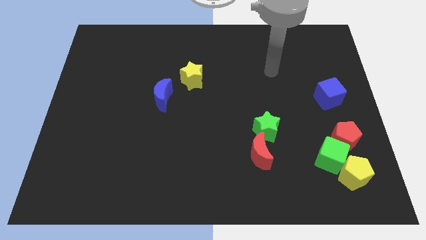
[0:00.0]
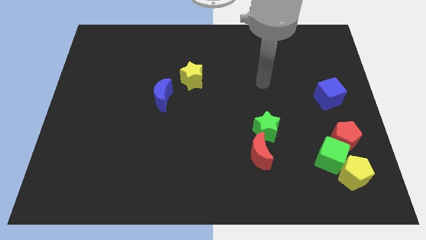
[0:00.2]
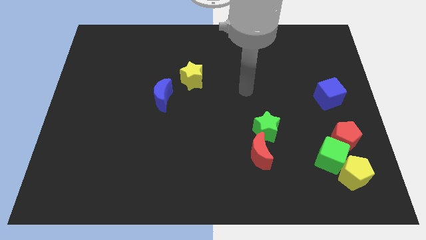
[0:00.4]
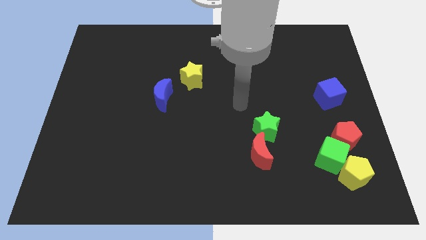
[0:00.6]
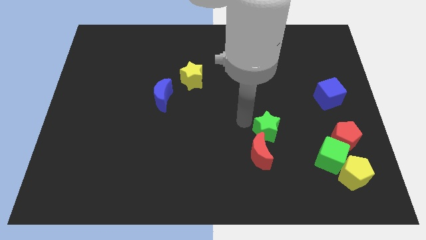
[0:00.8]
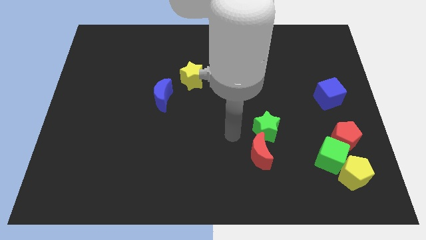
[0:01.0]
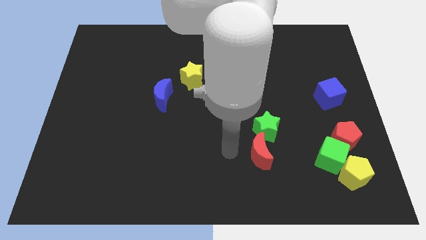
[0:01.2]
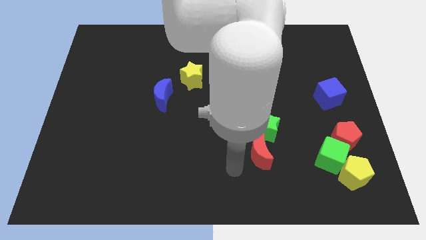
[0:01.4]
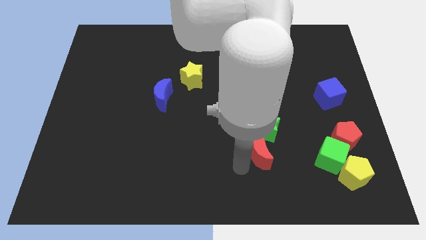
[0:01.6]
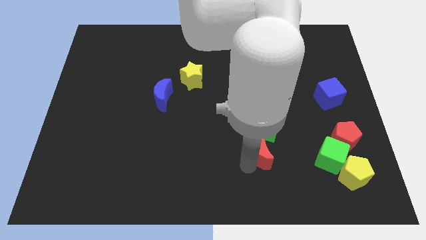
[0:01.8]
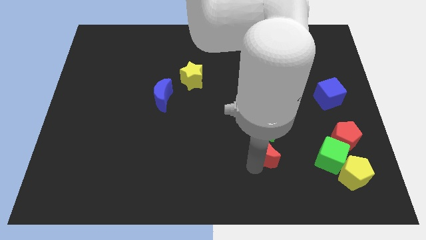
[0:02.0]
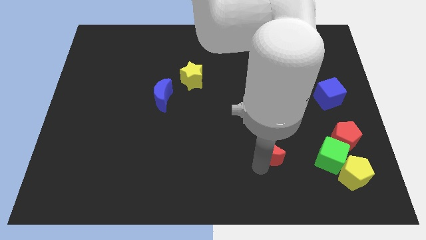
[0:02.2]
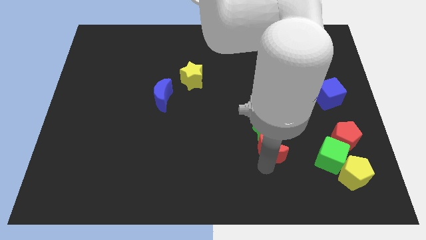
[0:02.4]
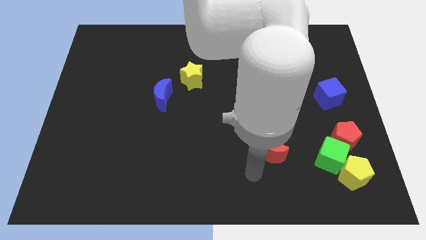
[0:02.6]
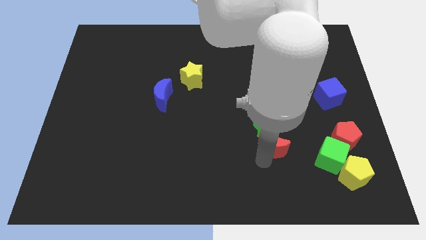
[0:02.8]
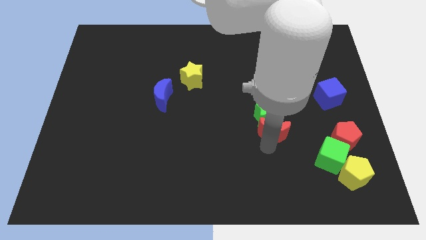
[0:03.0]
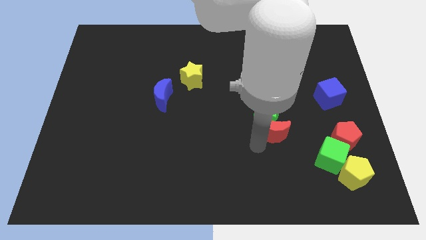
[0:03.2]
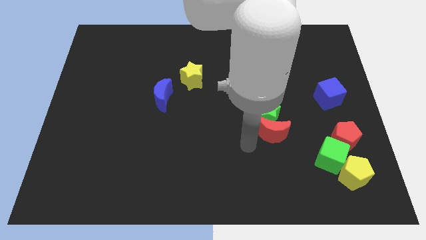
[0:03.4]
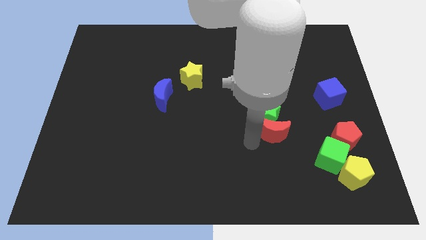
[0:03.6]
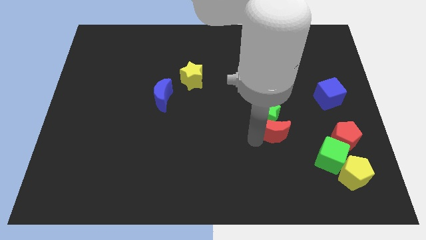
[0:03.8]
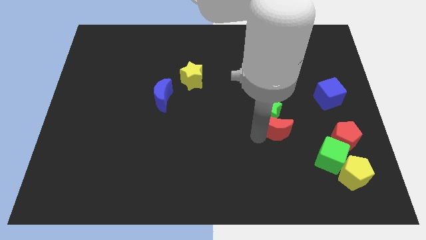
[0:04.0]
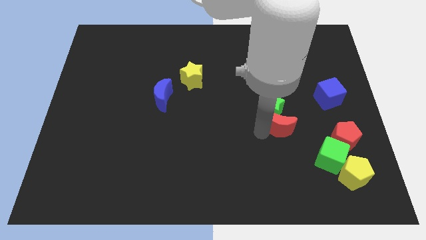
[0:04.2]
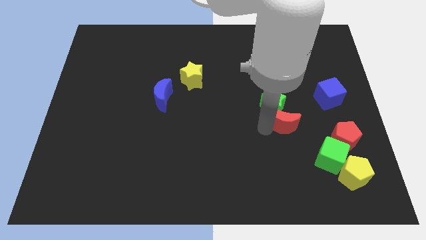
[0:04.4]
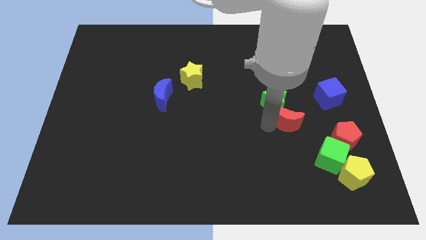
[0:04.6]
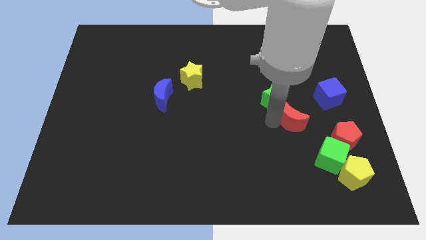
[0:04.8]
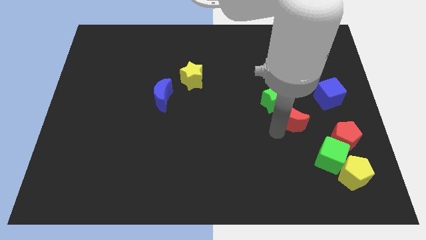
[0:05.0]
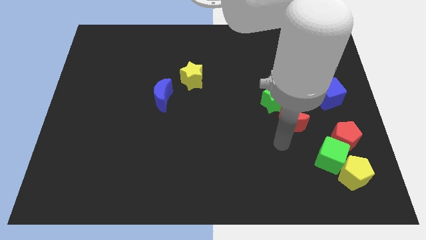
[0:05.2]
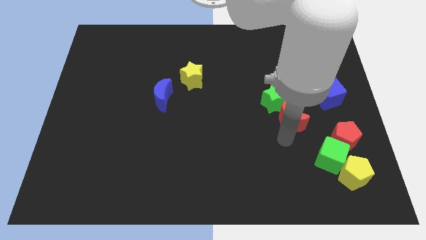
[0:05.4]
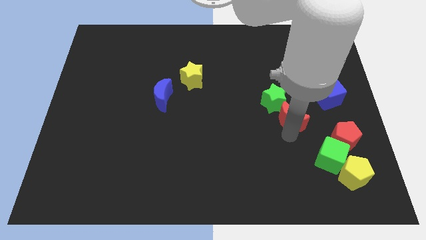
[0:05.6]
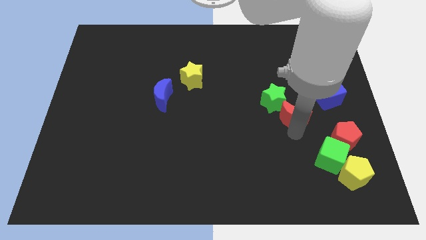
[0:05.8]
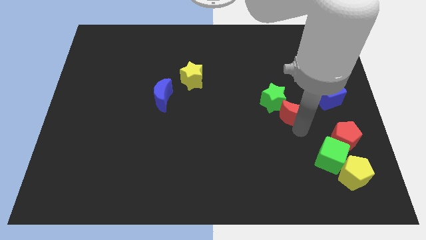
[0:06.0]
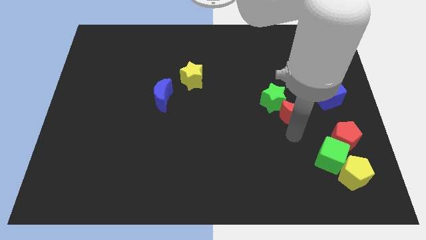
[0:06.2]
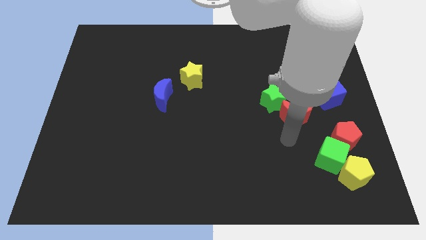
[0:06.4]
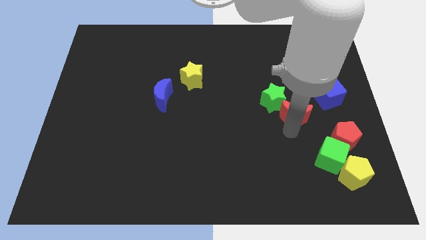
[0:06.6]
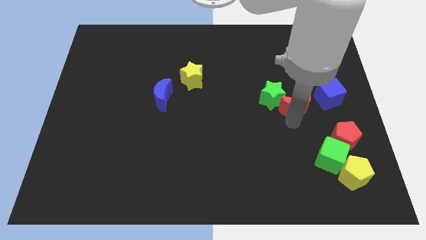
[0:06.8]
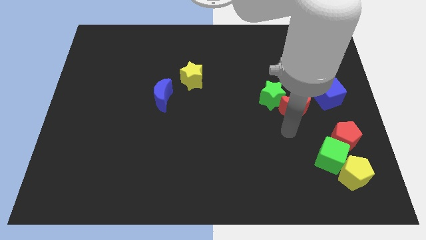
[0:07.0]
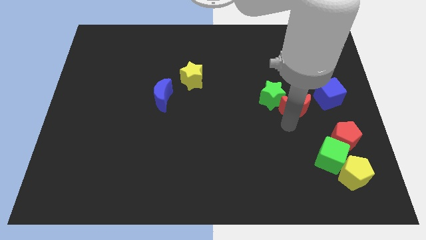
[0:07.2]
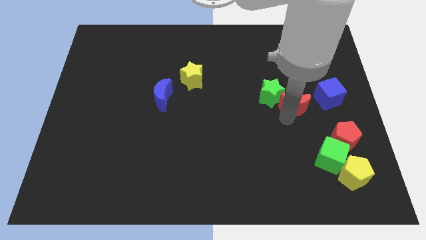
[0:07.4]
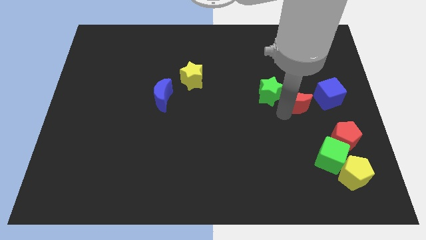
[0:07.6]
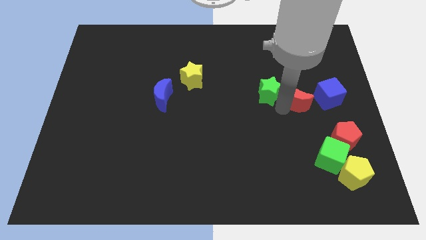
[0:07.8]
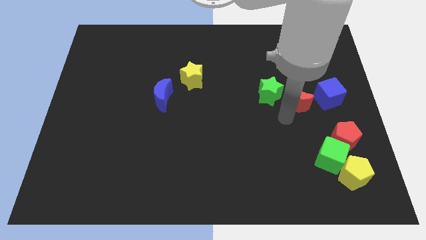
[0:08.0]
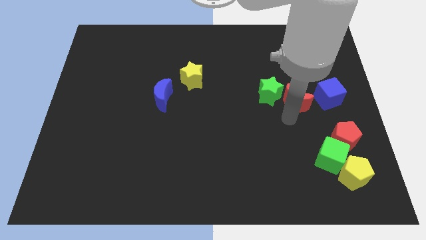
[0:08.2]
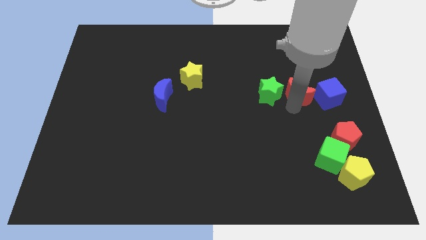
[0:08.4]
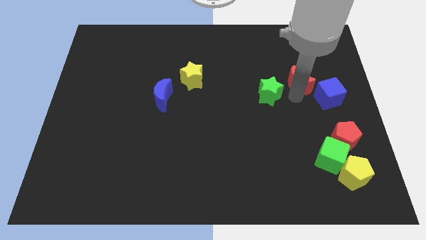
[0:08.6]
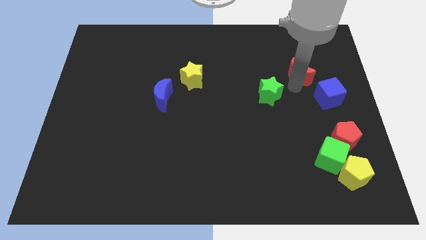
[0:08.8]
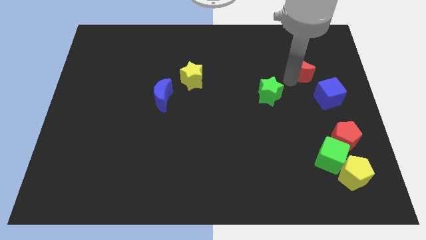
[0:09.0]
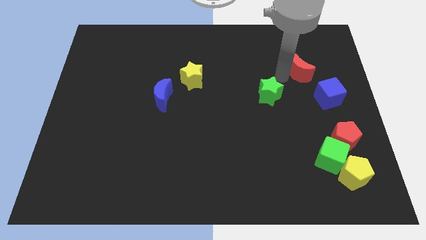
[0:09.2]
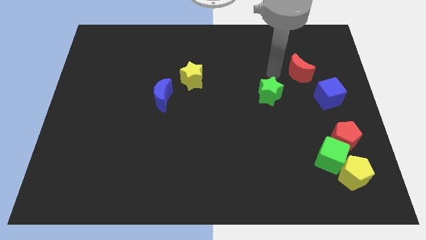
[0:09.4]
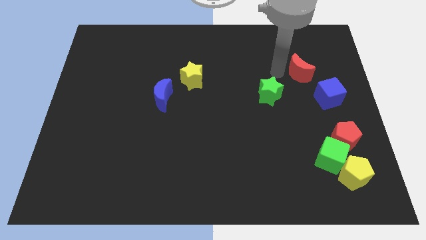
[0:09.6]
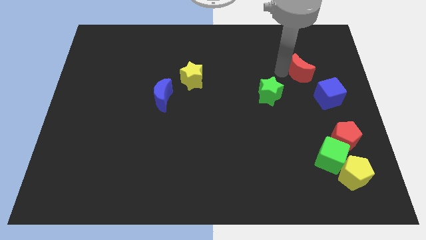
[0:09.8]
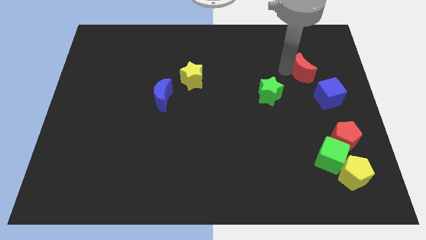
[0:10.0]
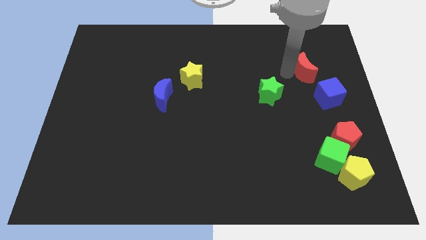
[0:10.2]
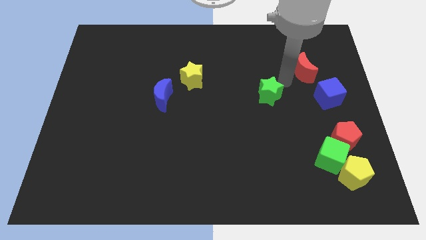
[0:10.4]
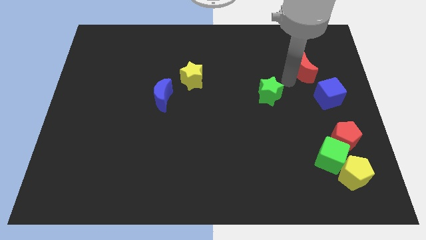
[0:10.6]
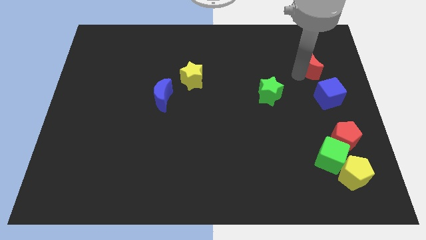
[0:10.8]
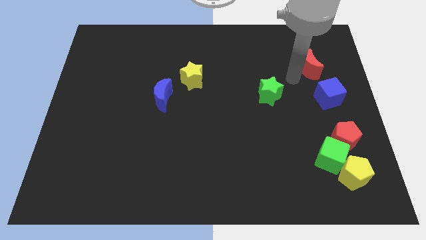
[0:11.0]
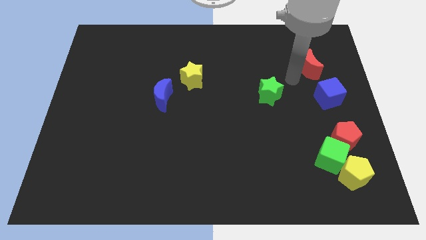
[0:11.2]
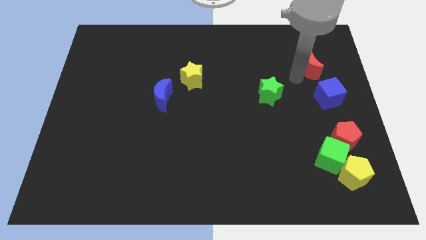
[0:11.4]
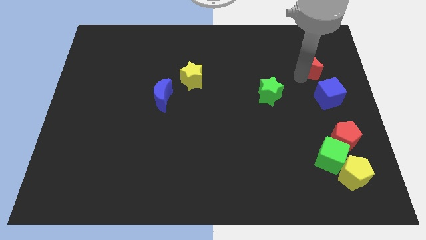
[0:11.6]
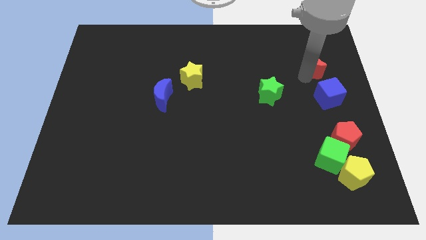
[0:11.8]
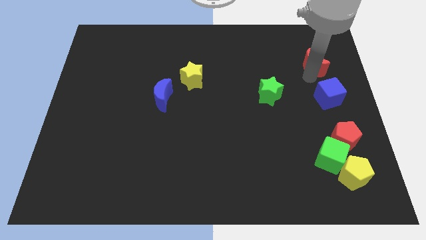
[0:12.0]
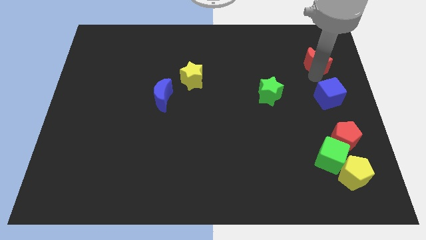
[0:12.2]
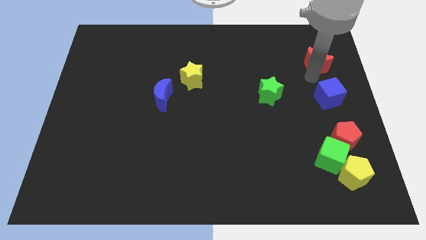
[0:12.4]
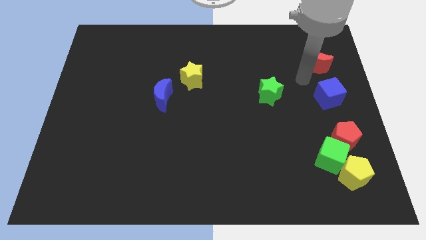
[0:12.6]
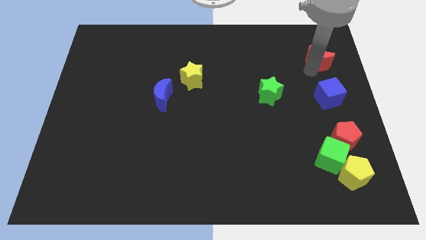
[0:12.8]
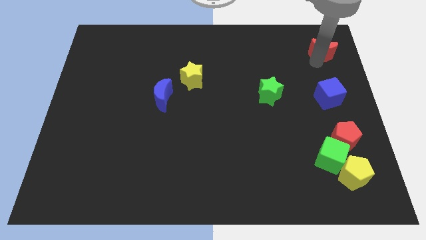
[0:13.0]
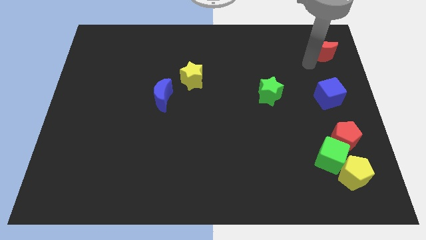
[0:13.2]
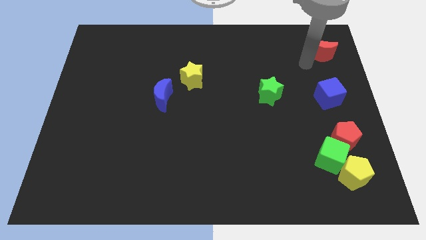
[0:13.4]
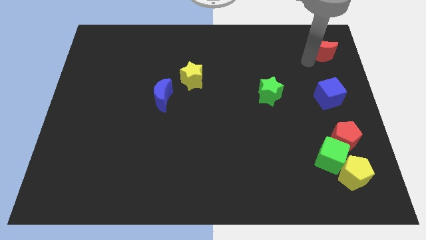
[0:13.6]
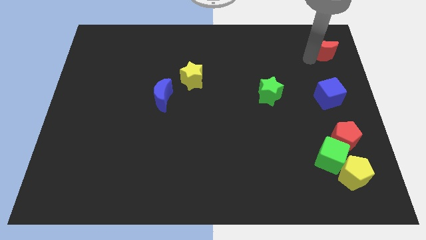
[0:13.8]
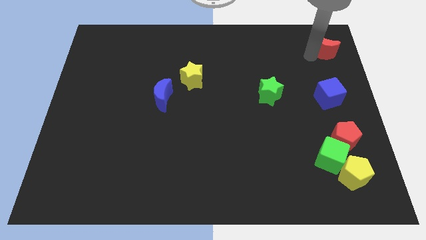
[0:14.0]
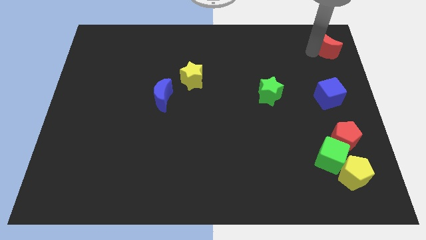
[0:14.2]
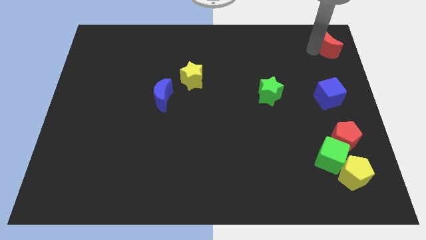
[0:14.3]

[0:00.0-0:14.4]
put the red moon to the top right of the board
